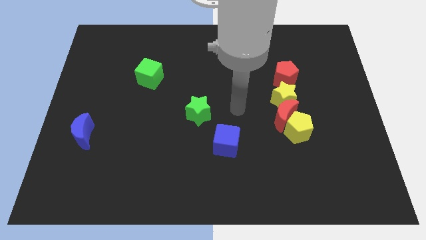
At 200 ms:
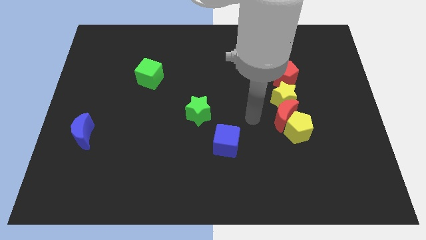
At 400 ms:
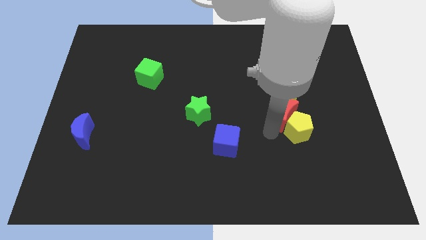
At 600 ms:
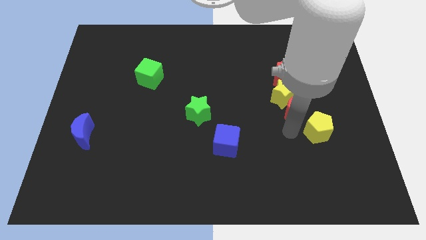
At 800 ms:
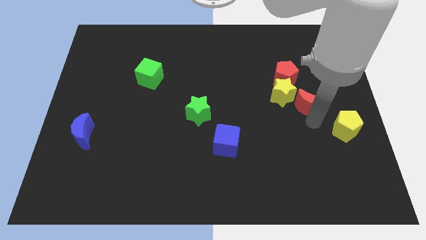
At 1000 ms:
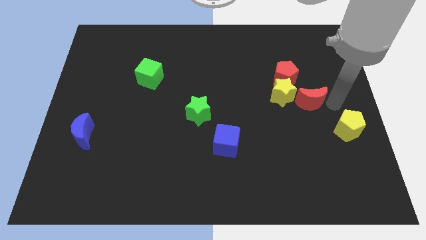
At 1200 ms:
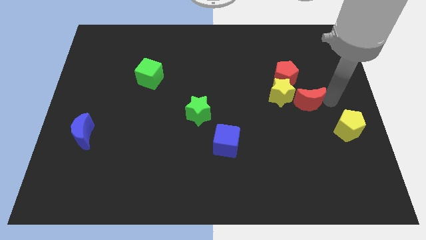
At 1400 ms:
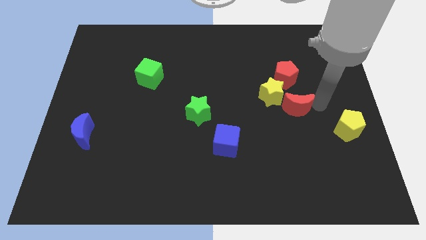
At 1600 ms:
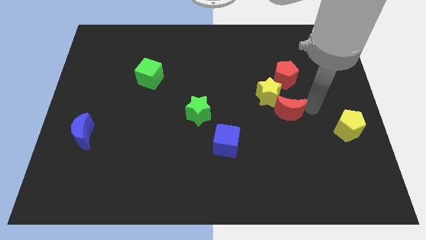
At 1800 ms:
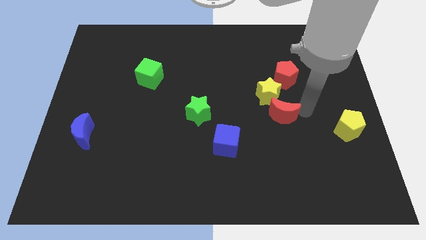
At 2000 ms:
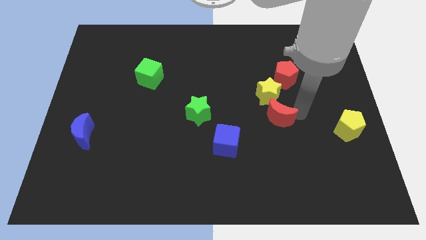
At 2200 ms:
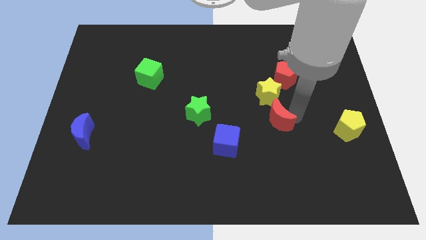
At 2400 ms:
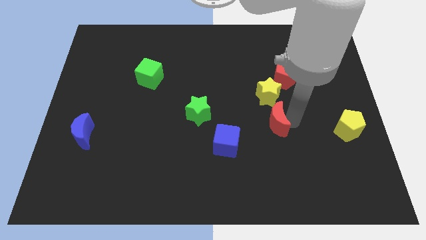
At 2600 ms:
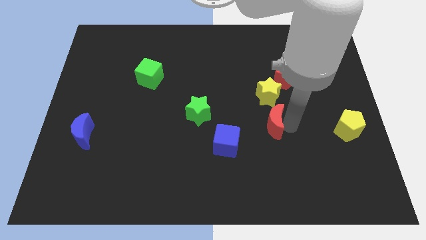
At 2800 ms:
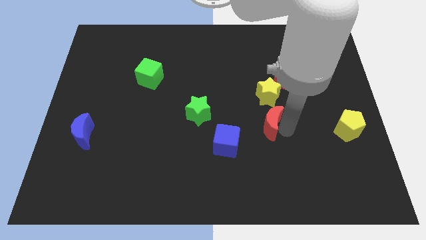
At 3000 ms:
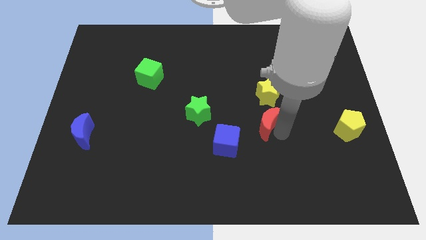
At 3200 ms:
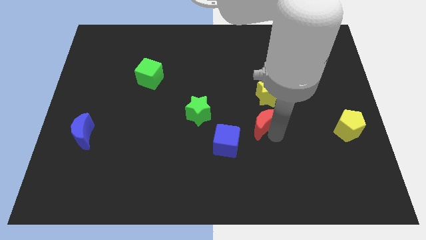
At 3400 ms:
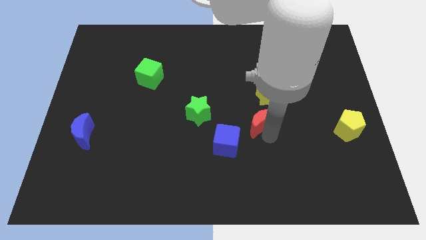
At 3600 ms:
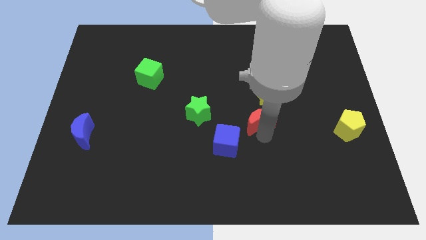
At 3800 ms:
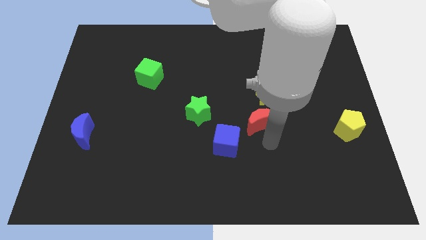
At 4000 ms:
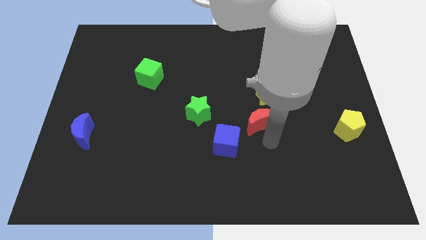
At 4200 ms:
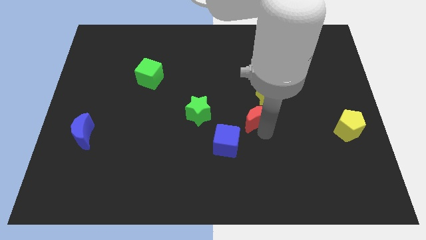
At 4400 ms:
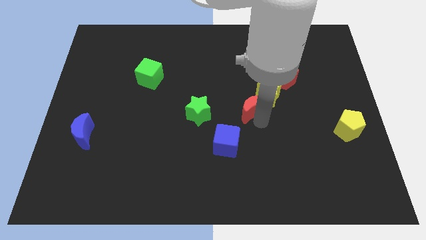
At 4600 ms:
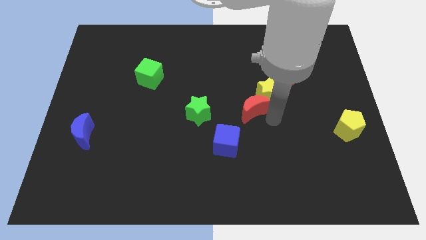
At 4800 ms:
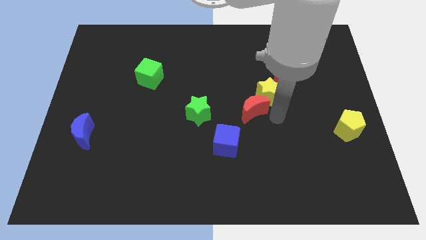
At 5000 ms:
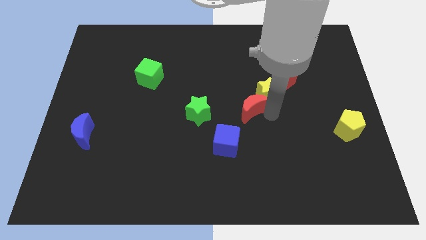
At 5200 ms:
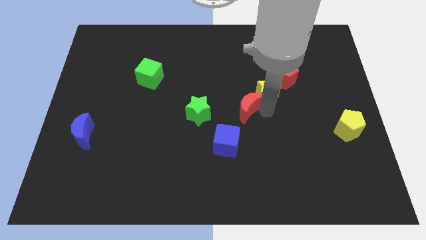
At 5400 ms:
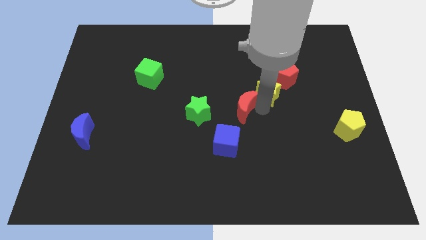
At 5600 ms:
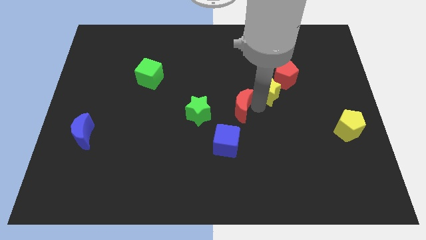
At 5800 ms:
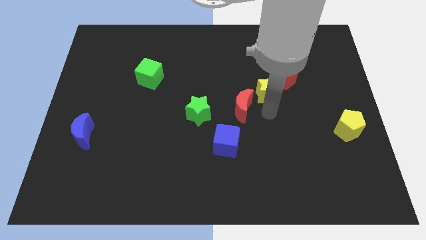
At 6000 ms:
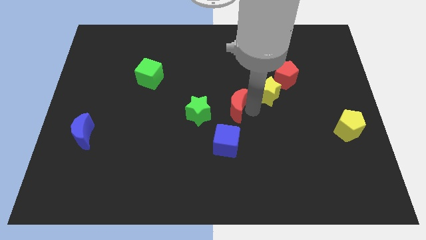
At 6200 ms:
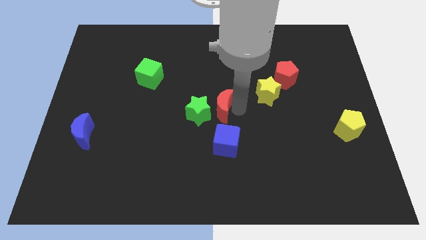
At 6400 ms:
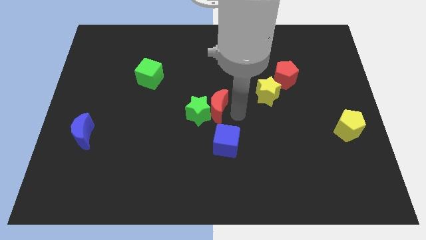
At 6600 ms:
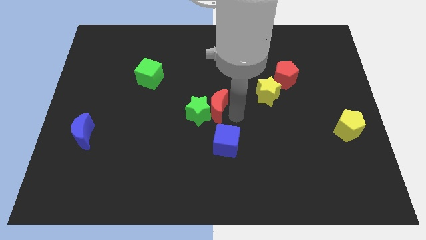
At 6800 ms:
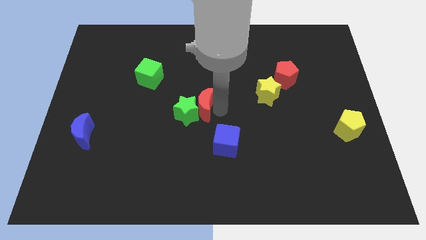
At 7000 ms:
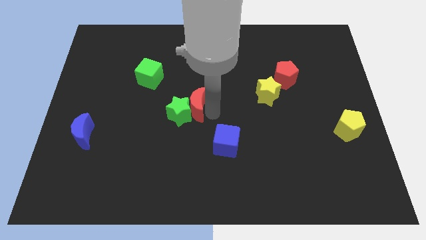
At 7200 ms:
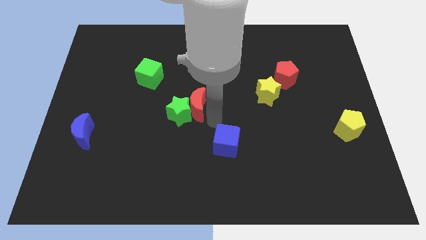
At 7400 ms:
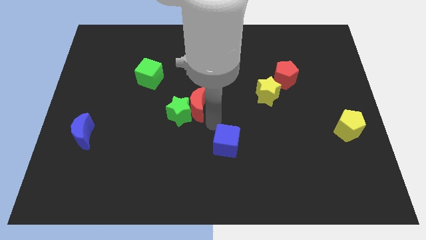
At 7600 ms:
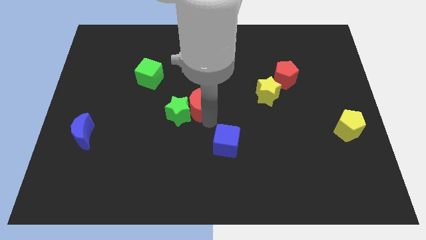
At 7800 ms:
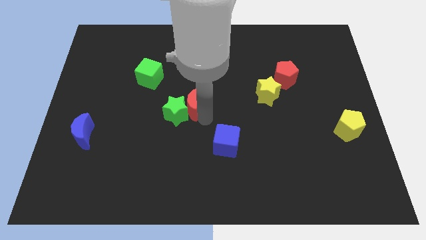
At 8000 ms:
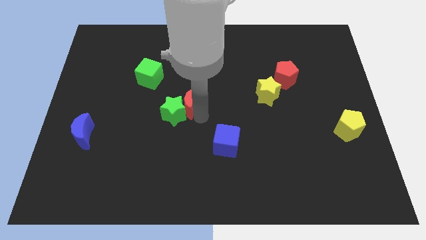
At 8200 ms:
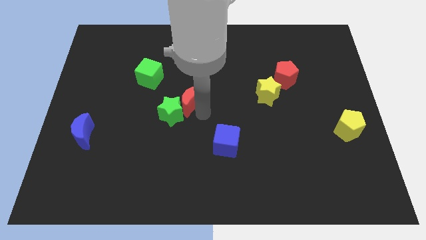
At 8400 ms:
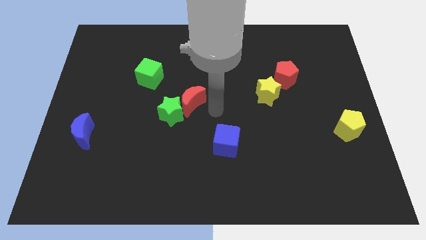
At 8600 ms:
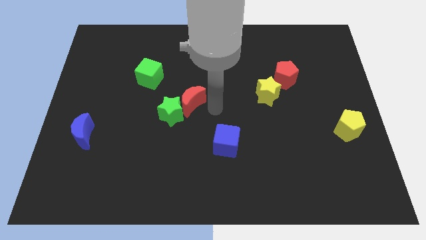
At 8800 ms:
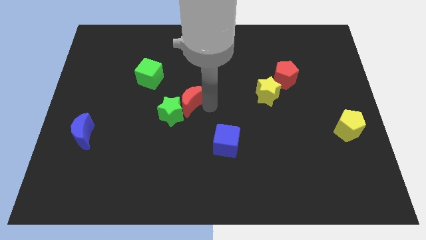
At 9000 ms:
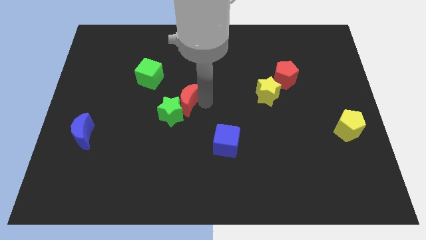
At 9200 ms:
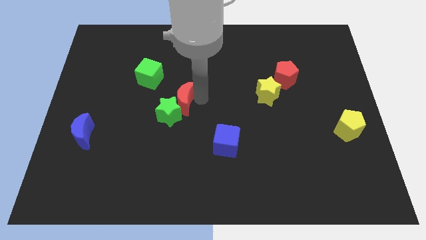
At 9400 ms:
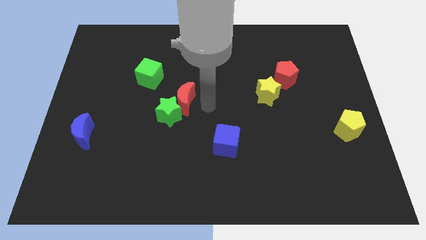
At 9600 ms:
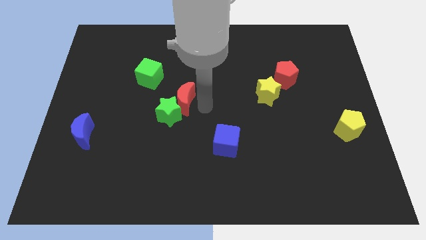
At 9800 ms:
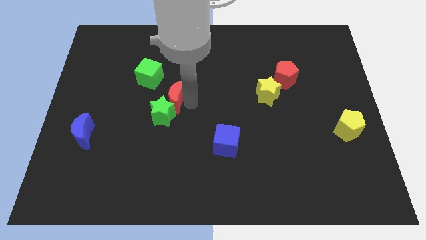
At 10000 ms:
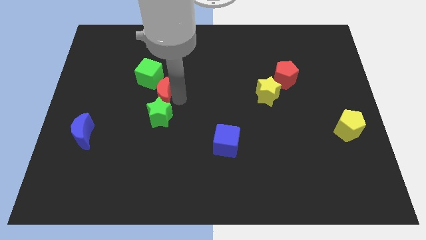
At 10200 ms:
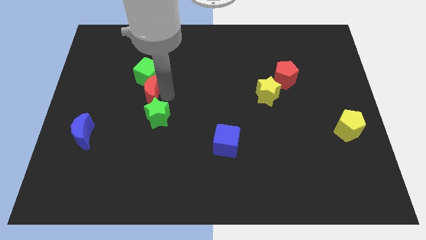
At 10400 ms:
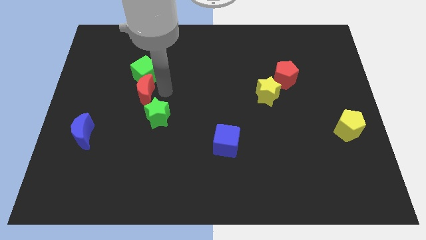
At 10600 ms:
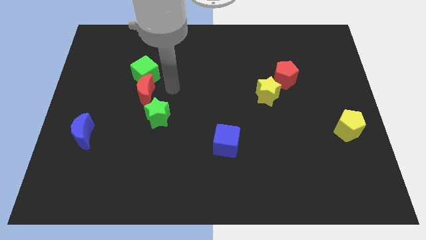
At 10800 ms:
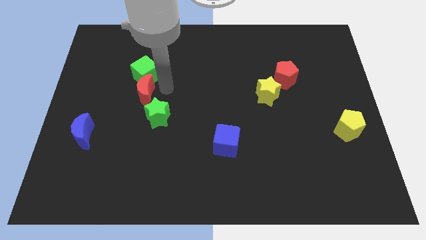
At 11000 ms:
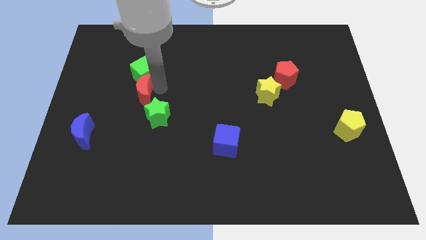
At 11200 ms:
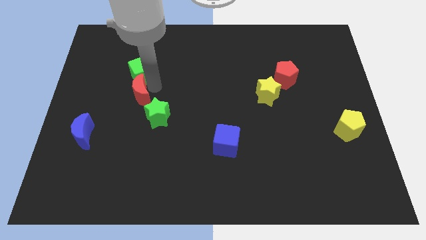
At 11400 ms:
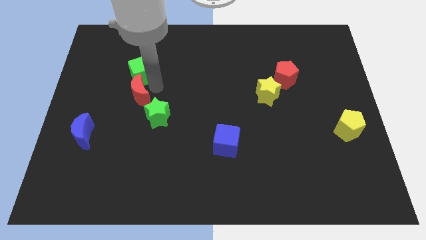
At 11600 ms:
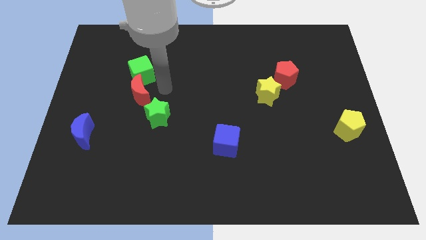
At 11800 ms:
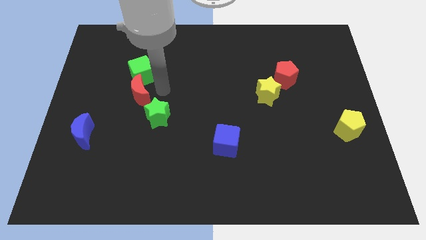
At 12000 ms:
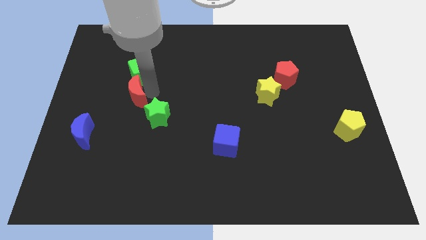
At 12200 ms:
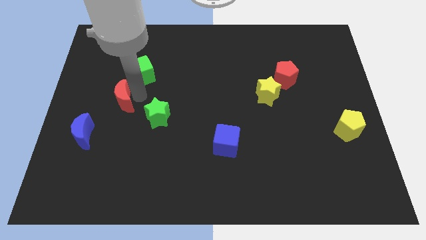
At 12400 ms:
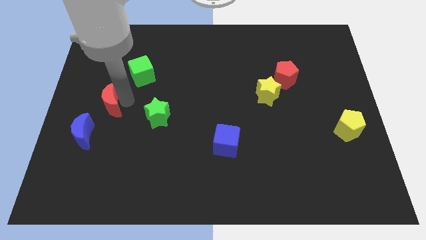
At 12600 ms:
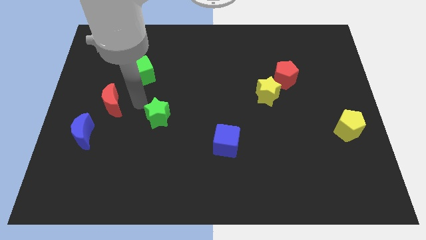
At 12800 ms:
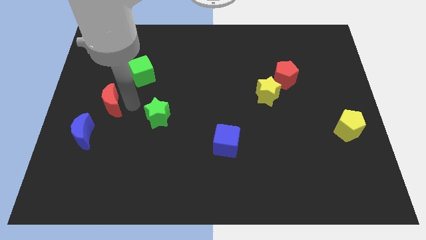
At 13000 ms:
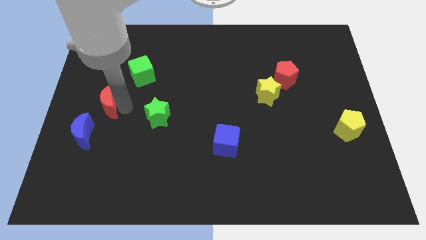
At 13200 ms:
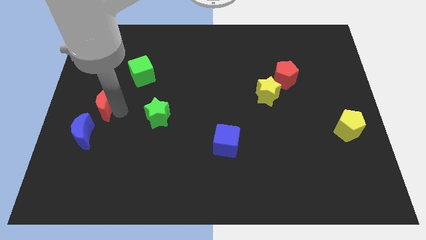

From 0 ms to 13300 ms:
put the red moon to the left side of the board

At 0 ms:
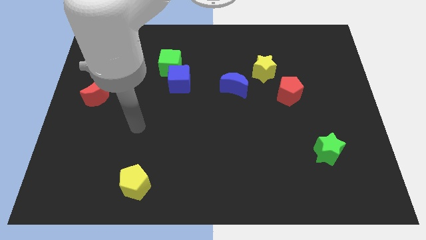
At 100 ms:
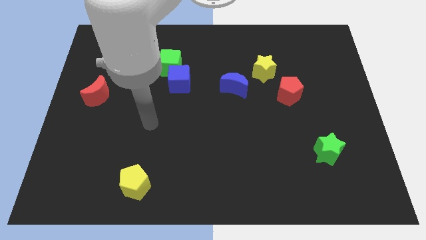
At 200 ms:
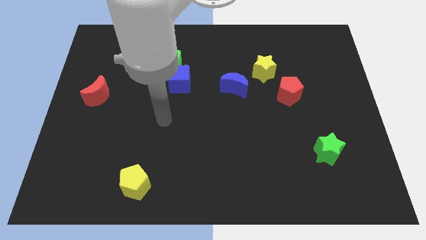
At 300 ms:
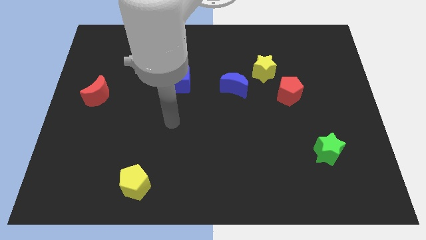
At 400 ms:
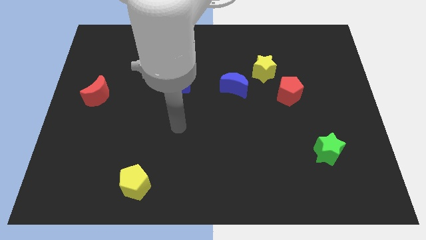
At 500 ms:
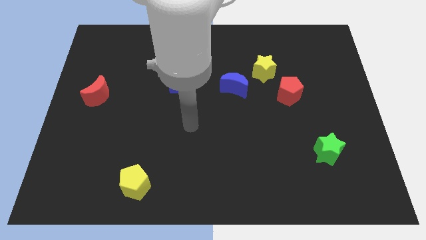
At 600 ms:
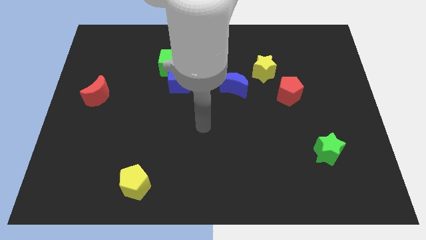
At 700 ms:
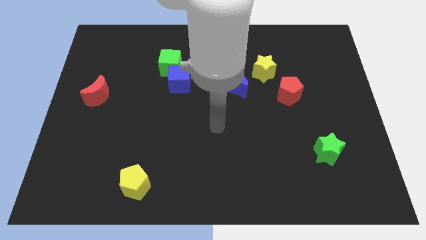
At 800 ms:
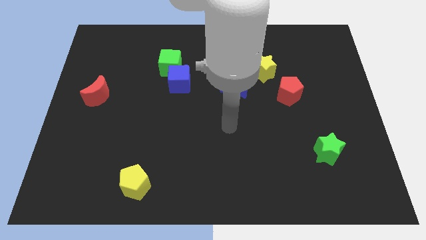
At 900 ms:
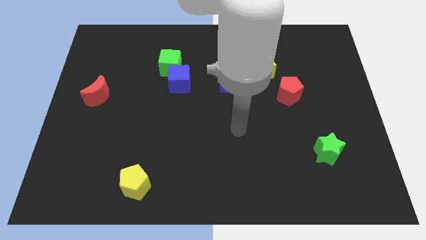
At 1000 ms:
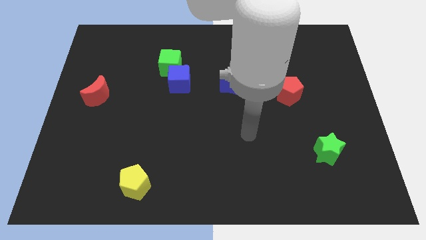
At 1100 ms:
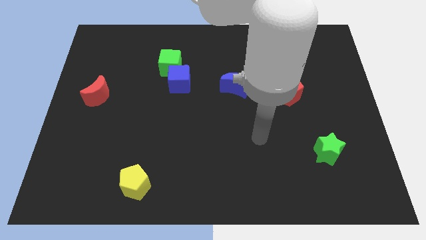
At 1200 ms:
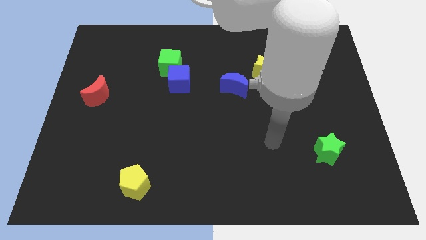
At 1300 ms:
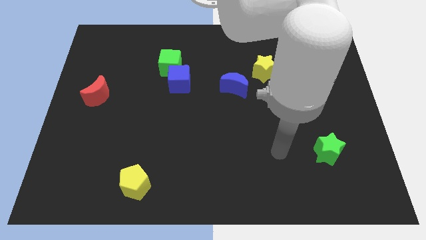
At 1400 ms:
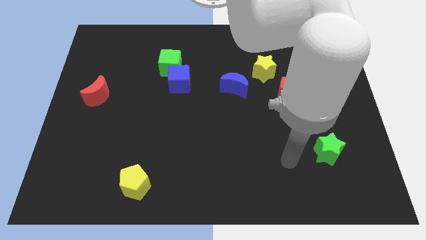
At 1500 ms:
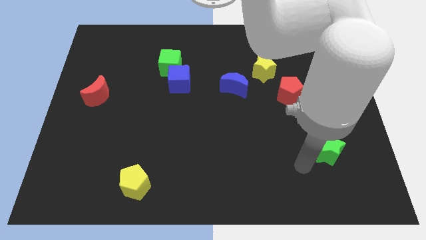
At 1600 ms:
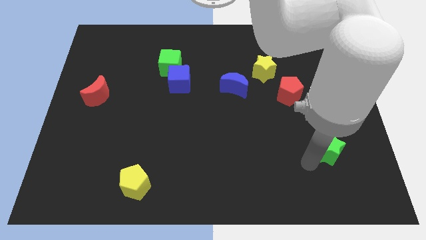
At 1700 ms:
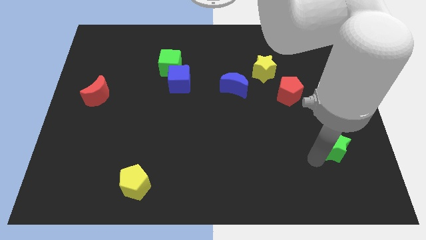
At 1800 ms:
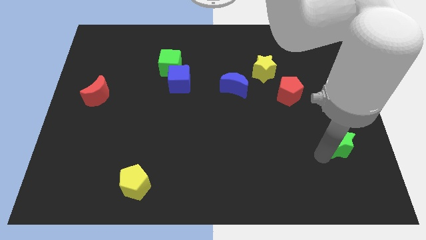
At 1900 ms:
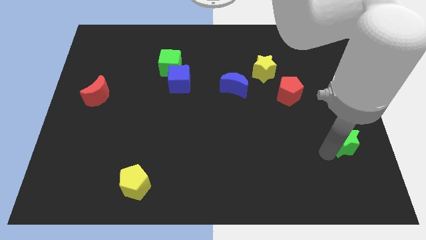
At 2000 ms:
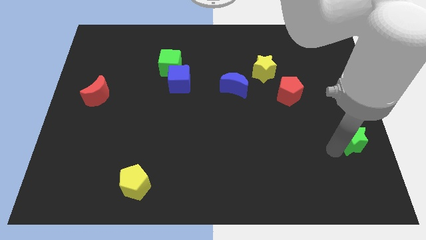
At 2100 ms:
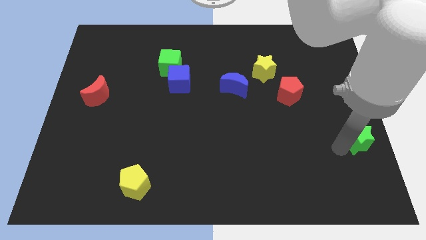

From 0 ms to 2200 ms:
push the green star to the right side of the board
